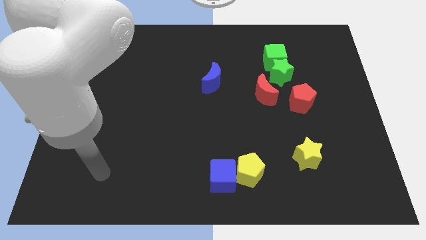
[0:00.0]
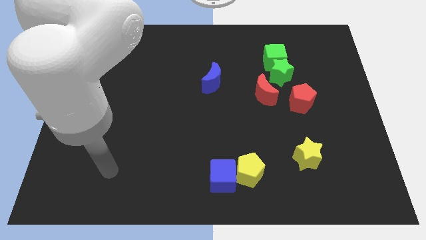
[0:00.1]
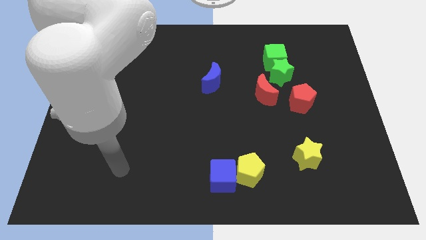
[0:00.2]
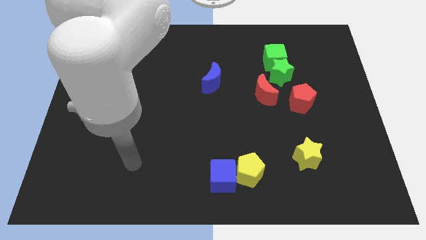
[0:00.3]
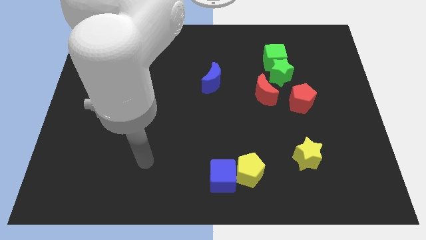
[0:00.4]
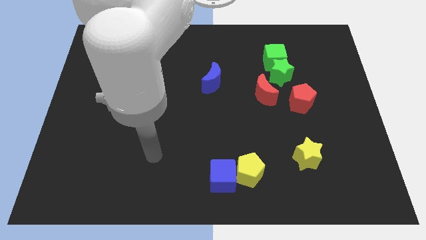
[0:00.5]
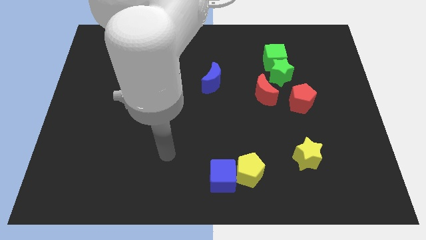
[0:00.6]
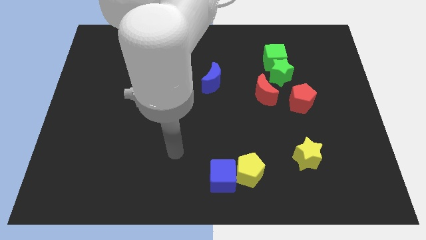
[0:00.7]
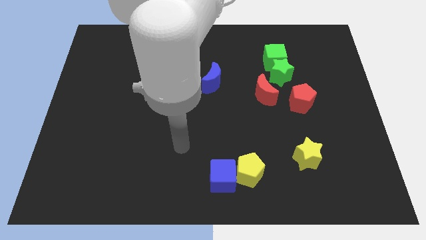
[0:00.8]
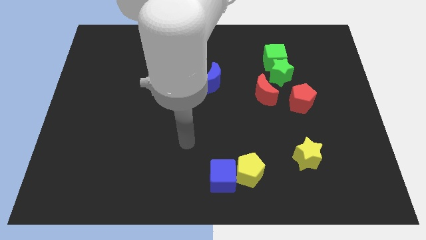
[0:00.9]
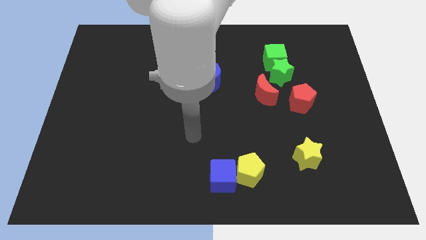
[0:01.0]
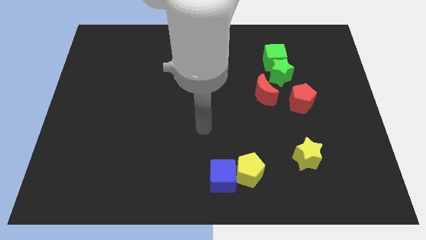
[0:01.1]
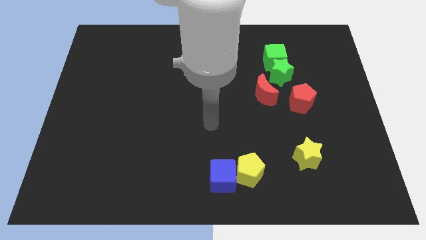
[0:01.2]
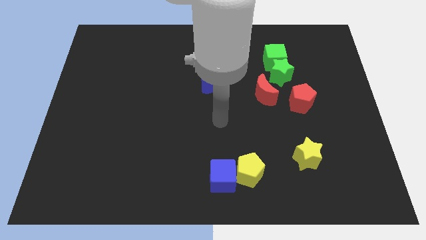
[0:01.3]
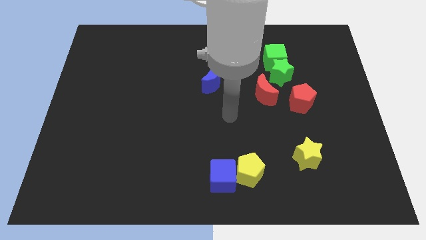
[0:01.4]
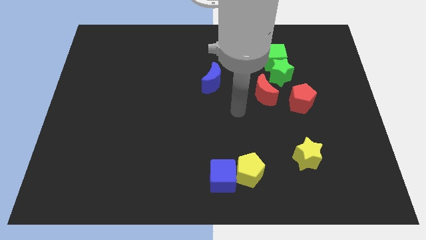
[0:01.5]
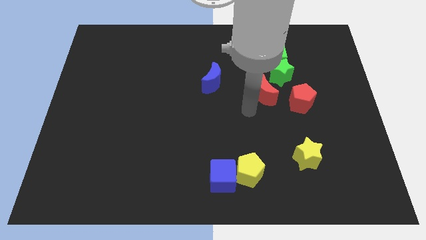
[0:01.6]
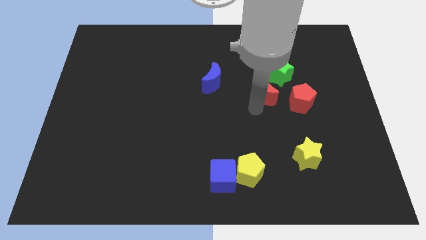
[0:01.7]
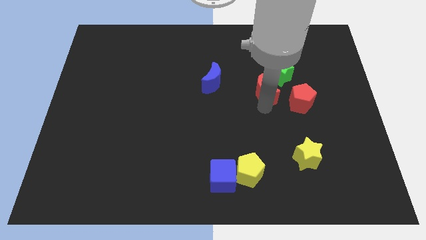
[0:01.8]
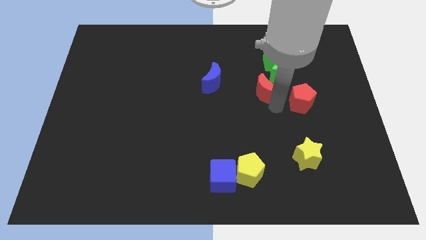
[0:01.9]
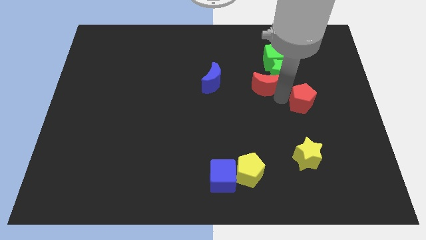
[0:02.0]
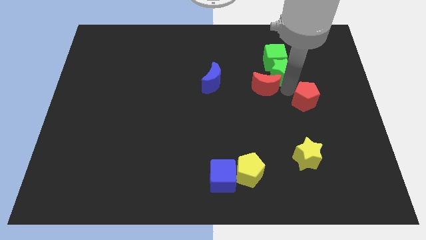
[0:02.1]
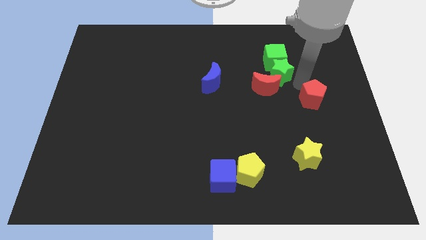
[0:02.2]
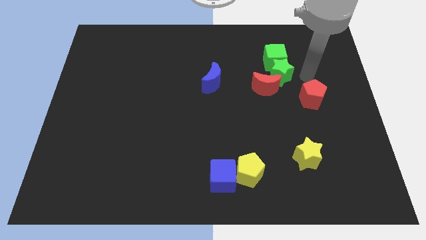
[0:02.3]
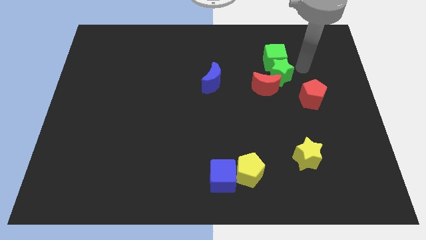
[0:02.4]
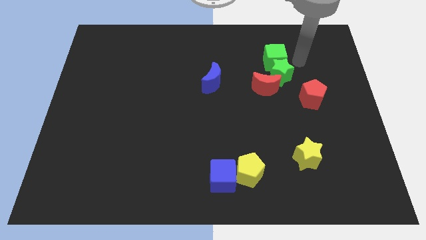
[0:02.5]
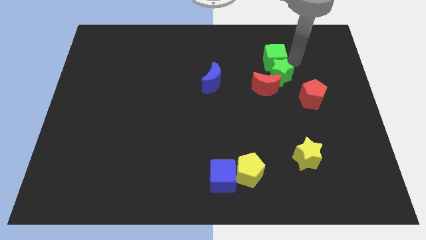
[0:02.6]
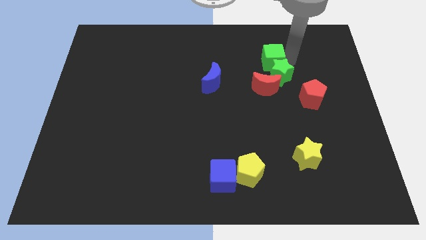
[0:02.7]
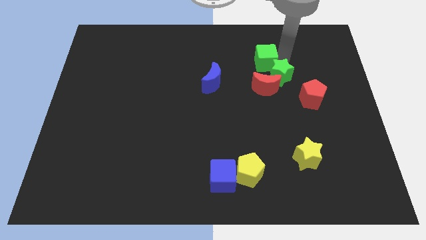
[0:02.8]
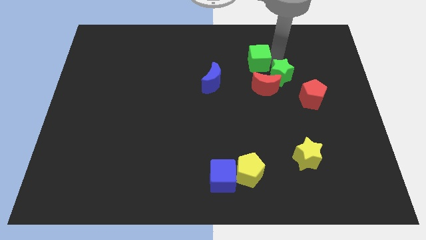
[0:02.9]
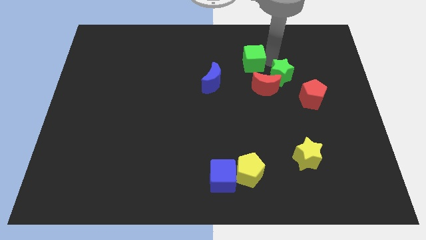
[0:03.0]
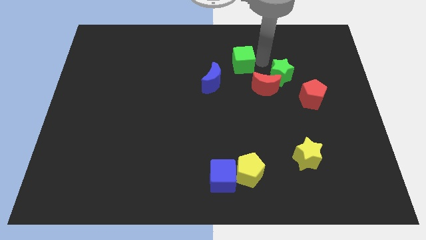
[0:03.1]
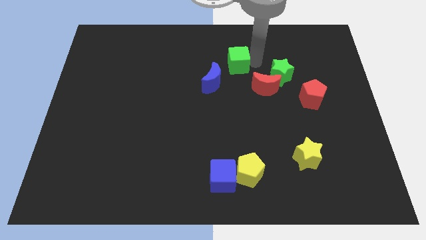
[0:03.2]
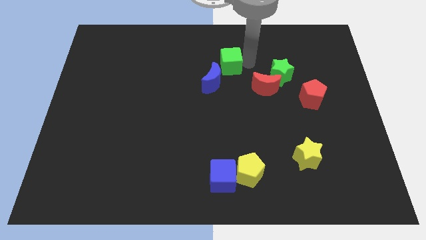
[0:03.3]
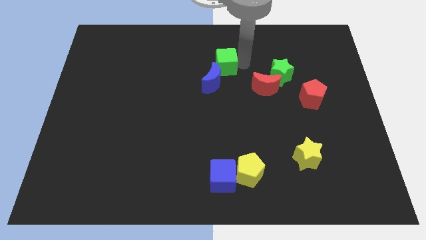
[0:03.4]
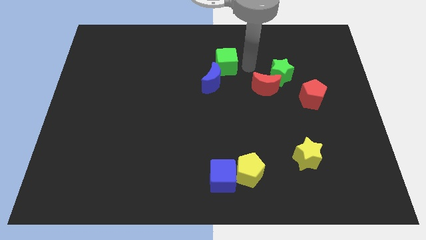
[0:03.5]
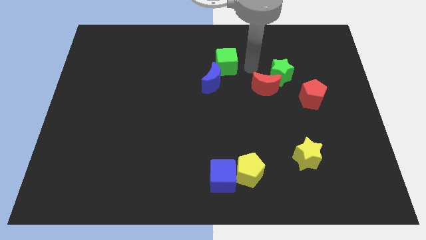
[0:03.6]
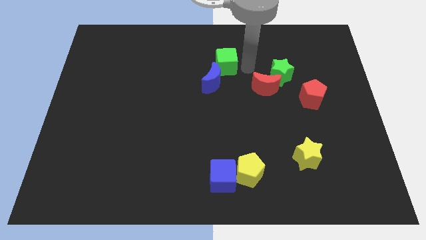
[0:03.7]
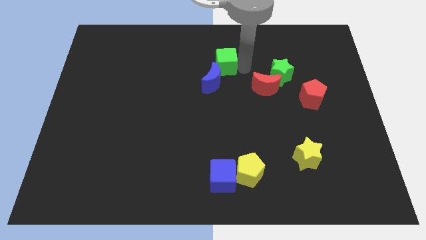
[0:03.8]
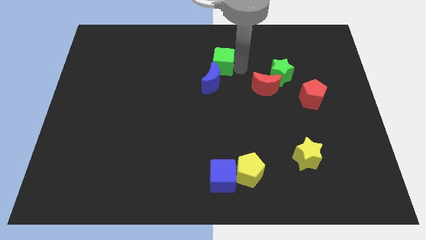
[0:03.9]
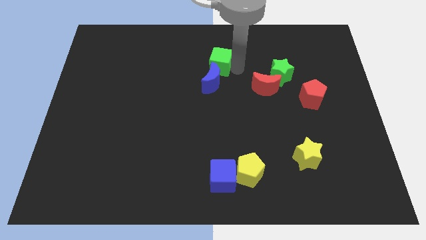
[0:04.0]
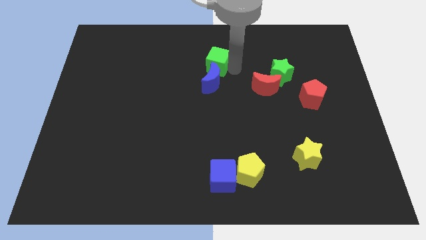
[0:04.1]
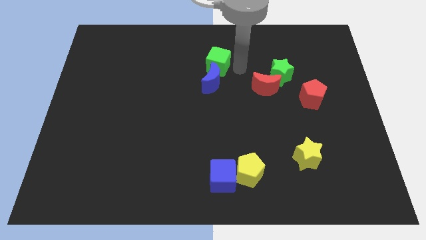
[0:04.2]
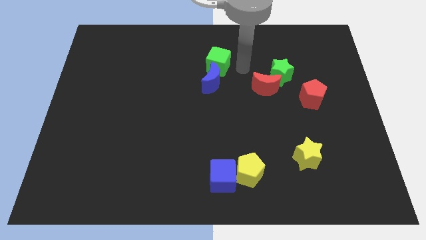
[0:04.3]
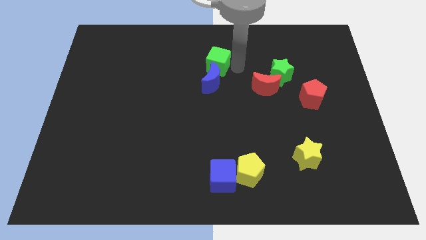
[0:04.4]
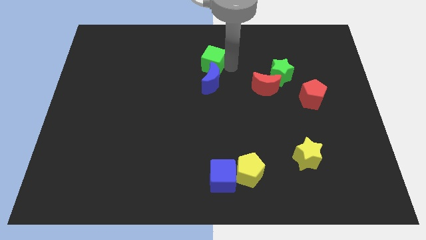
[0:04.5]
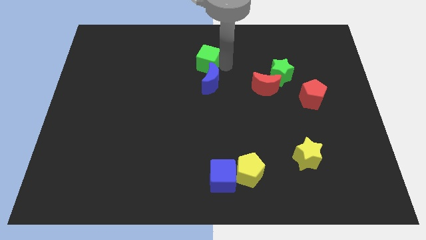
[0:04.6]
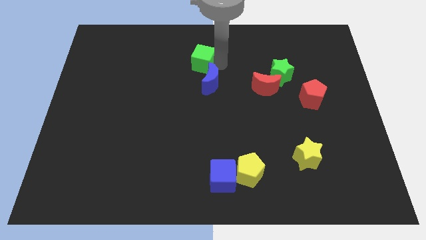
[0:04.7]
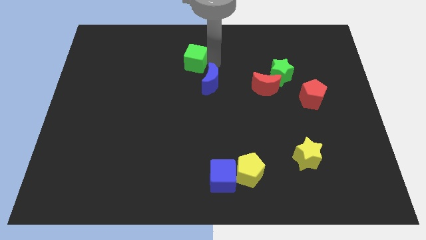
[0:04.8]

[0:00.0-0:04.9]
push the green cube to the left

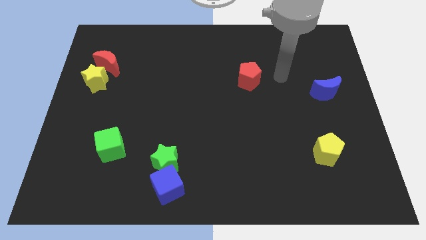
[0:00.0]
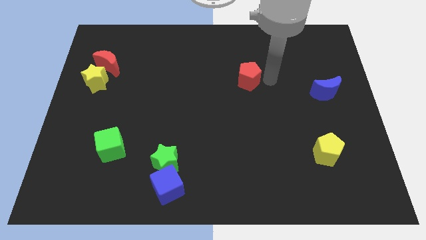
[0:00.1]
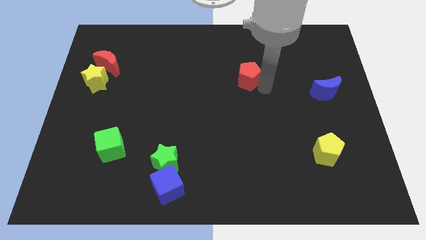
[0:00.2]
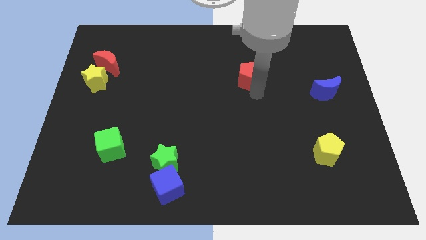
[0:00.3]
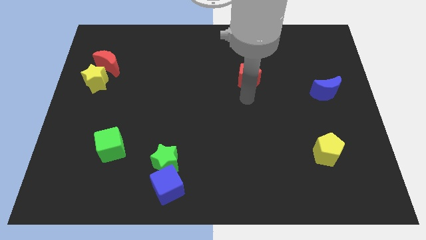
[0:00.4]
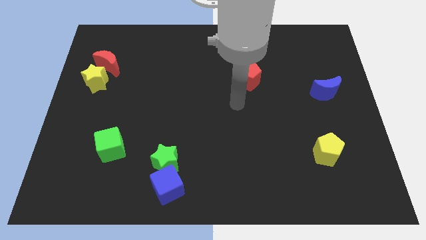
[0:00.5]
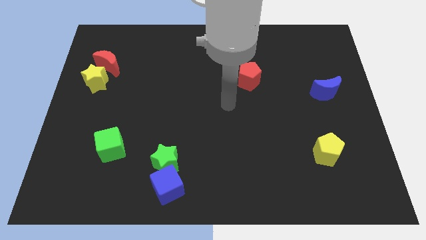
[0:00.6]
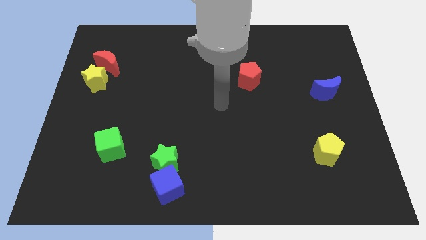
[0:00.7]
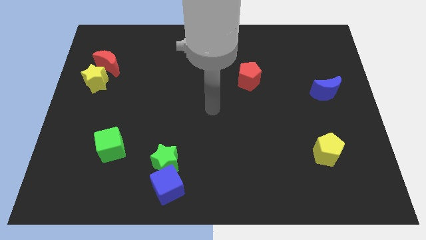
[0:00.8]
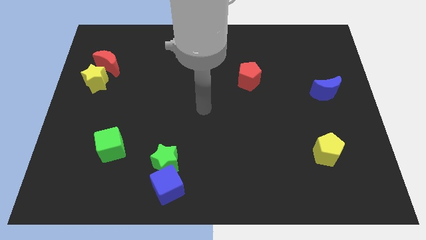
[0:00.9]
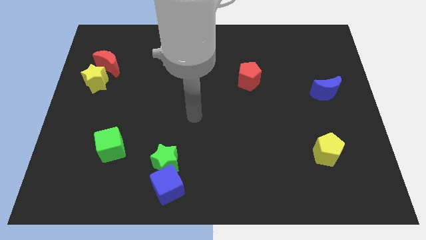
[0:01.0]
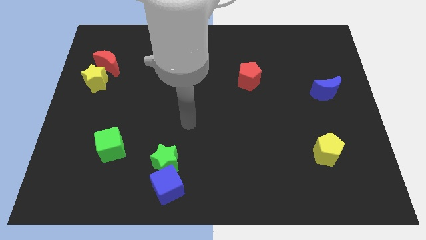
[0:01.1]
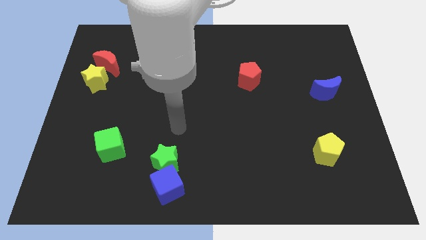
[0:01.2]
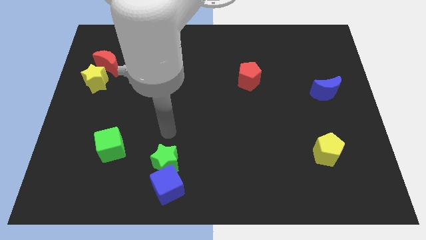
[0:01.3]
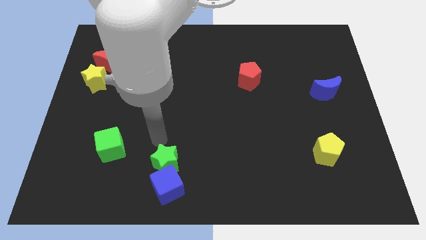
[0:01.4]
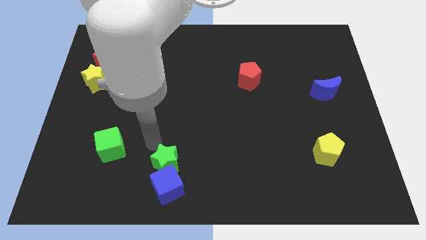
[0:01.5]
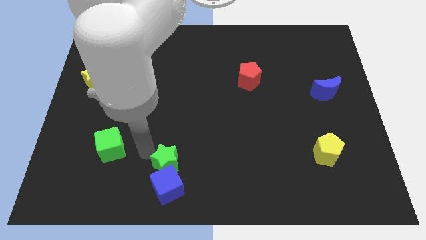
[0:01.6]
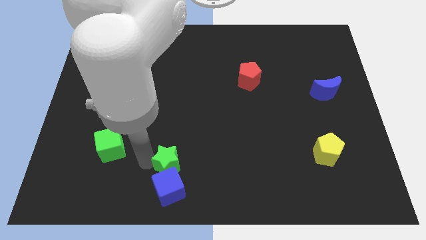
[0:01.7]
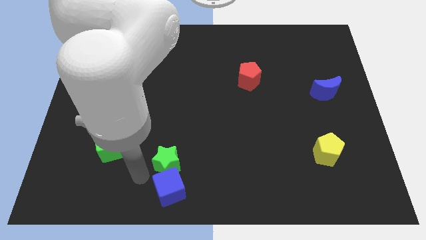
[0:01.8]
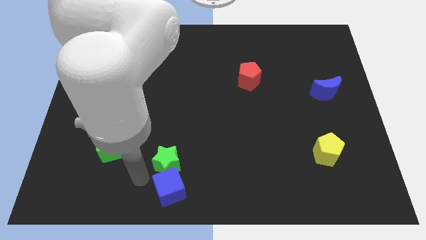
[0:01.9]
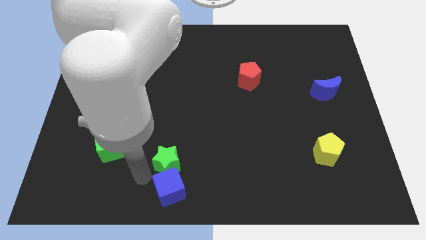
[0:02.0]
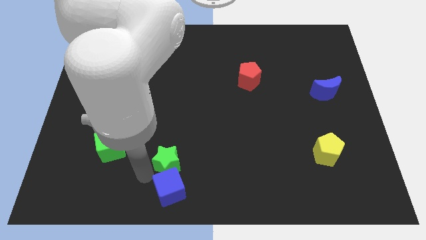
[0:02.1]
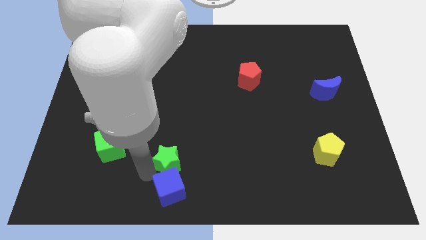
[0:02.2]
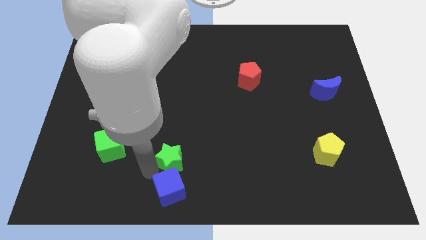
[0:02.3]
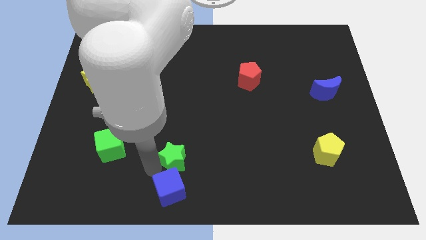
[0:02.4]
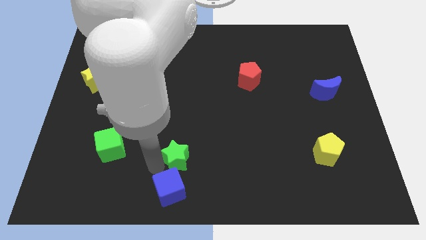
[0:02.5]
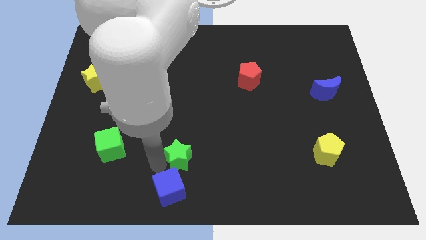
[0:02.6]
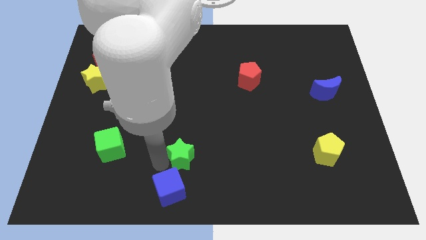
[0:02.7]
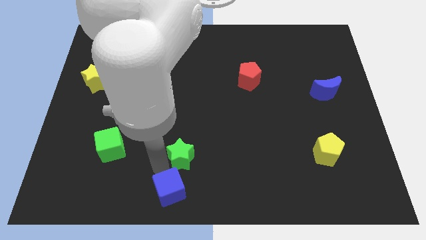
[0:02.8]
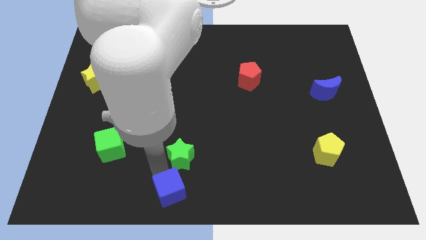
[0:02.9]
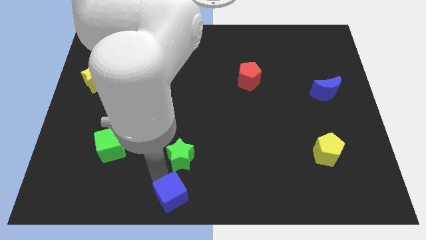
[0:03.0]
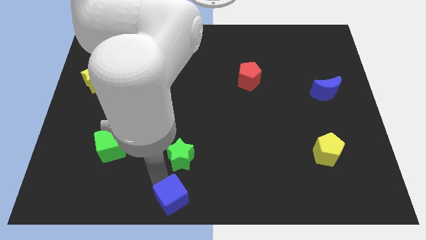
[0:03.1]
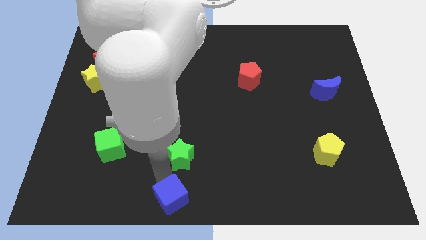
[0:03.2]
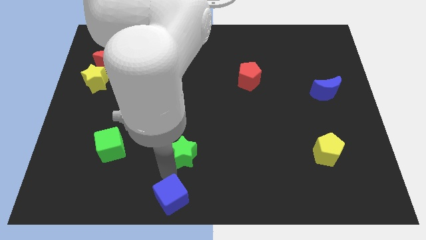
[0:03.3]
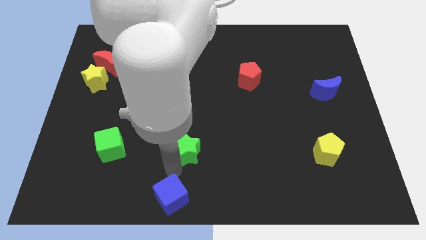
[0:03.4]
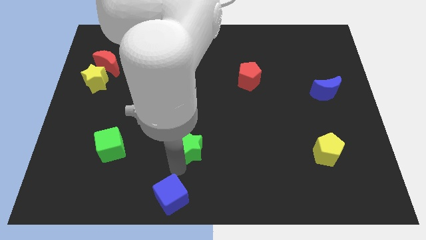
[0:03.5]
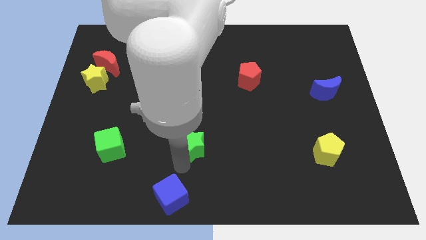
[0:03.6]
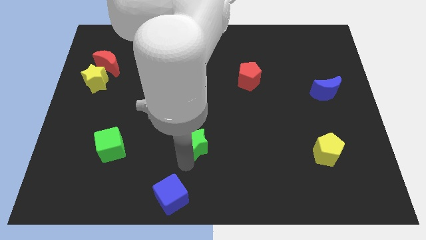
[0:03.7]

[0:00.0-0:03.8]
slightly move the green star up and to the right diagonally
